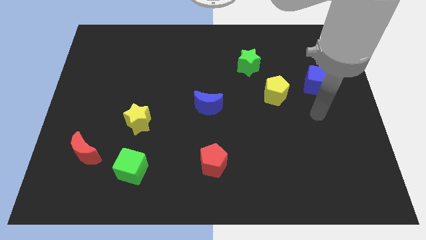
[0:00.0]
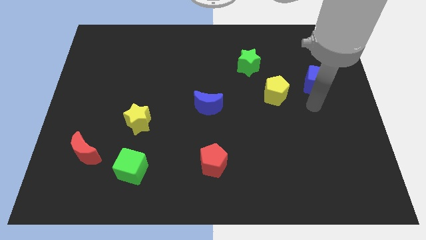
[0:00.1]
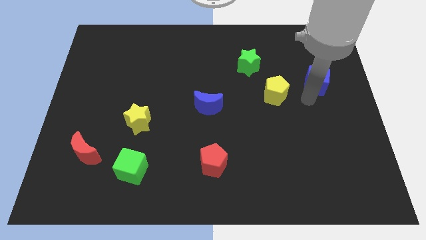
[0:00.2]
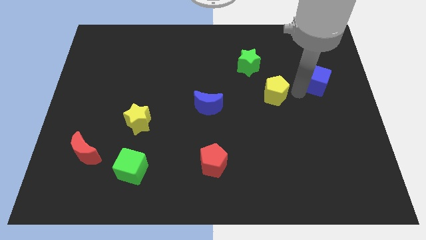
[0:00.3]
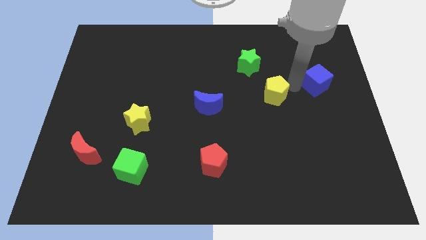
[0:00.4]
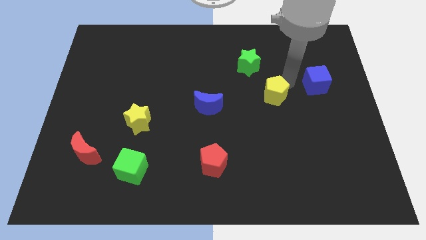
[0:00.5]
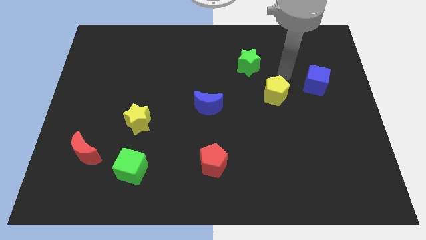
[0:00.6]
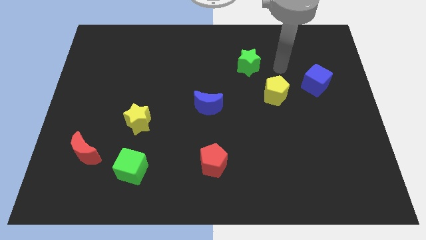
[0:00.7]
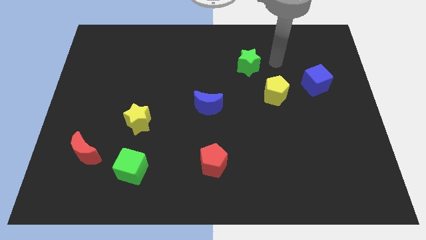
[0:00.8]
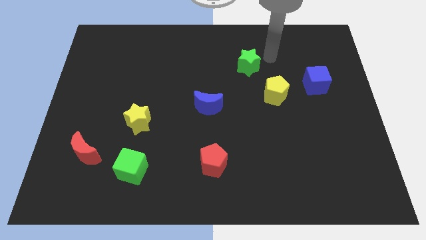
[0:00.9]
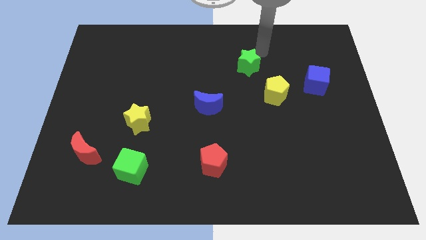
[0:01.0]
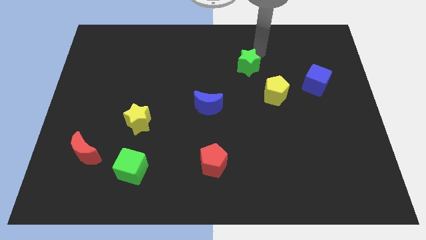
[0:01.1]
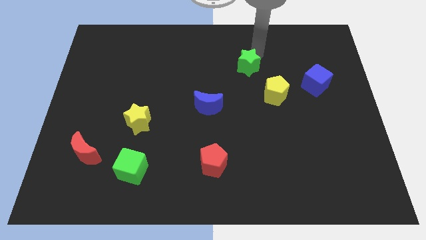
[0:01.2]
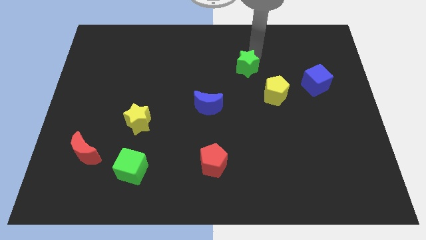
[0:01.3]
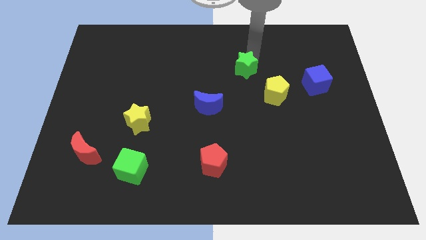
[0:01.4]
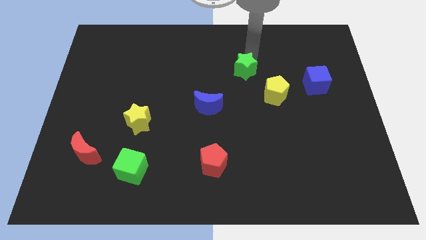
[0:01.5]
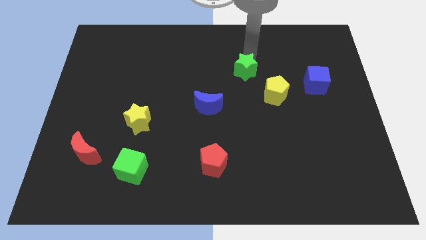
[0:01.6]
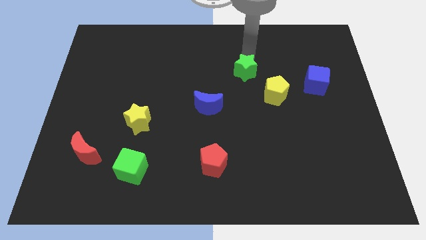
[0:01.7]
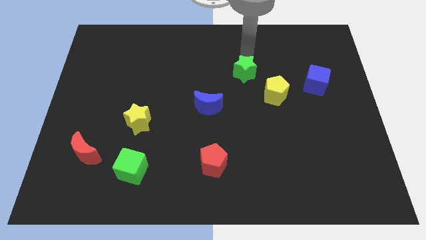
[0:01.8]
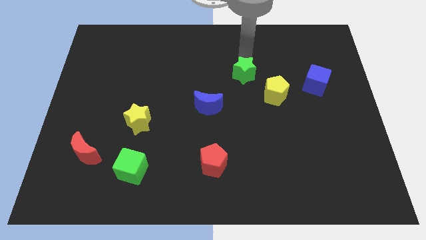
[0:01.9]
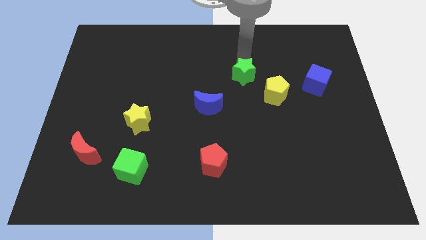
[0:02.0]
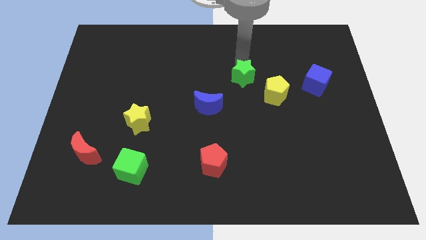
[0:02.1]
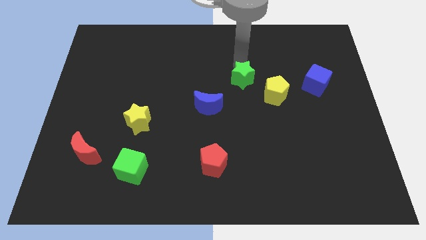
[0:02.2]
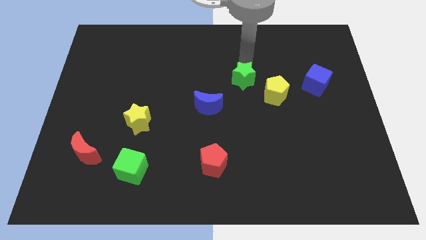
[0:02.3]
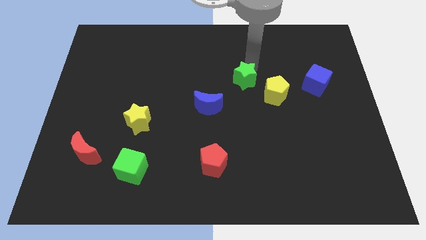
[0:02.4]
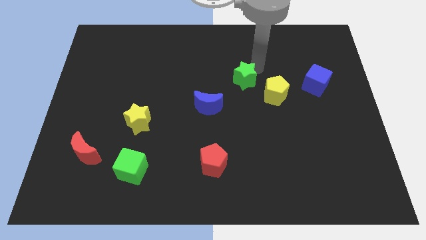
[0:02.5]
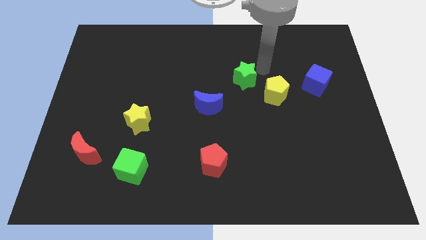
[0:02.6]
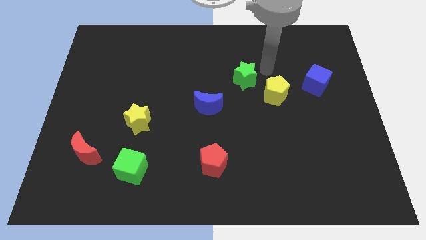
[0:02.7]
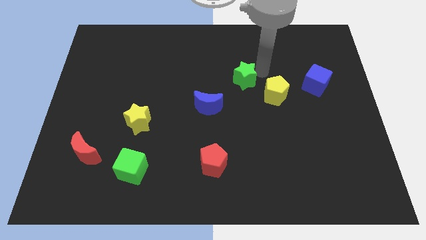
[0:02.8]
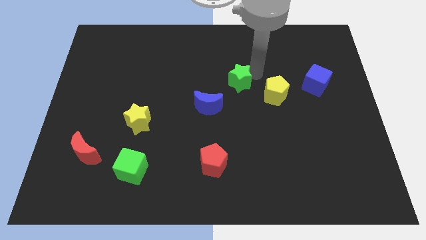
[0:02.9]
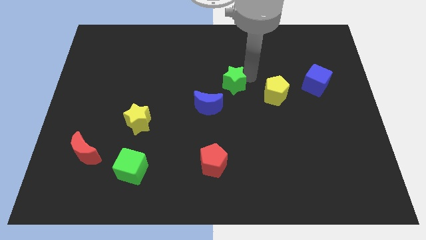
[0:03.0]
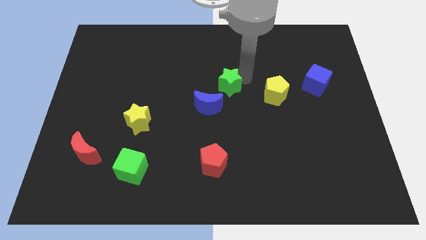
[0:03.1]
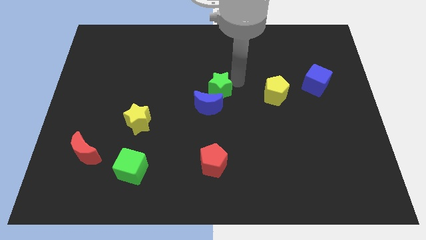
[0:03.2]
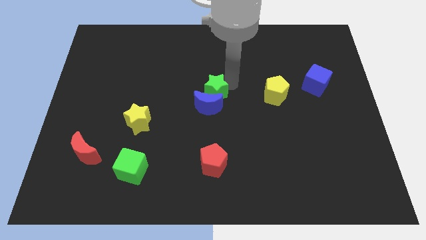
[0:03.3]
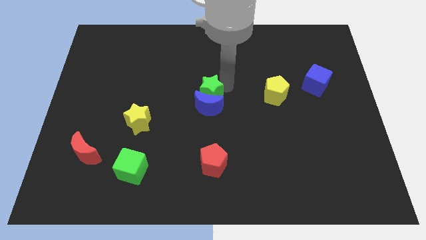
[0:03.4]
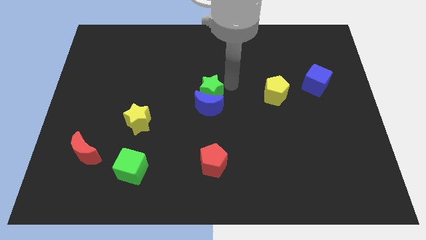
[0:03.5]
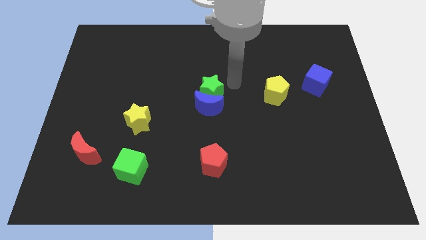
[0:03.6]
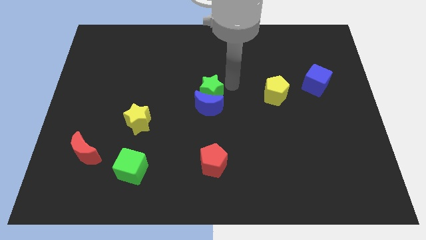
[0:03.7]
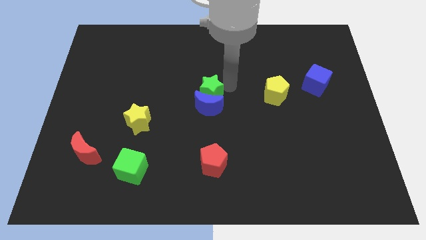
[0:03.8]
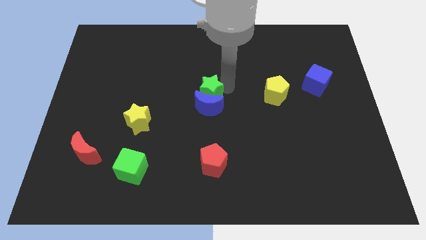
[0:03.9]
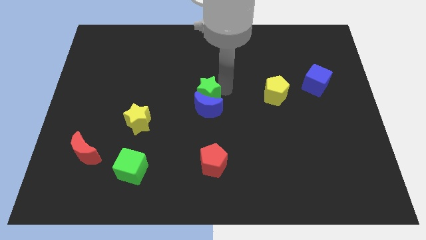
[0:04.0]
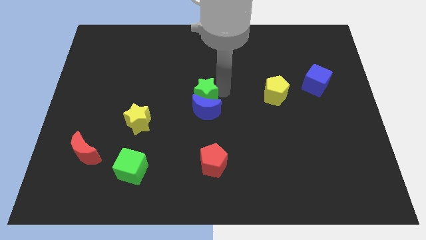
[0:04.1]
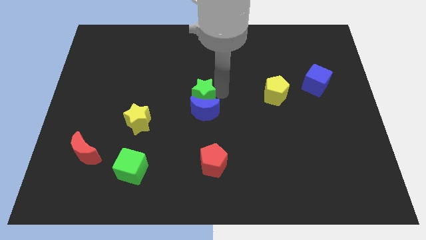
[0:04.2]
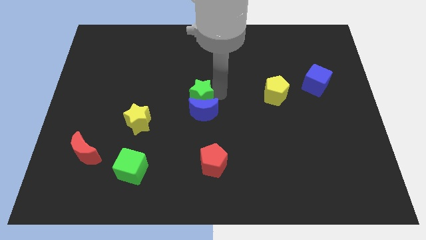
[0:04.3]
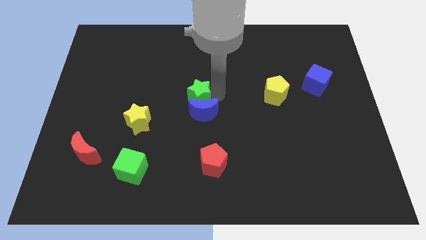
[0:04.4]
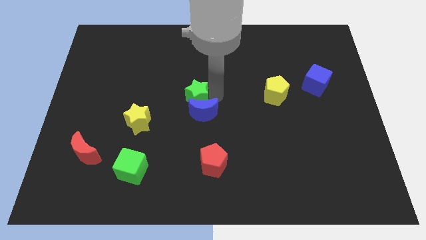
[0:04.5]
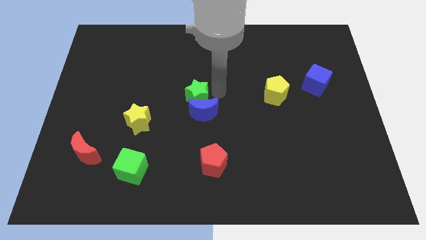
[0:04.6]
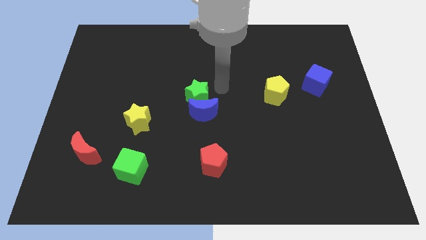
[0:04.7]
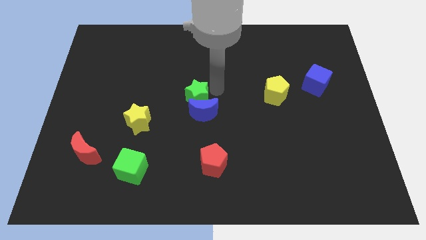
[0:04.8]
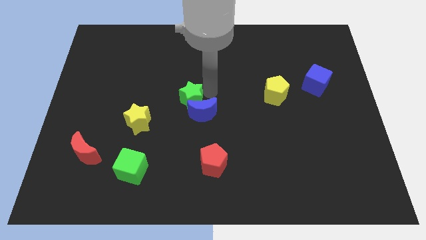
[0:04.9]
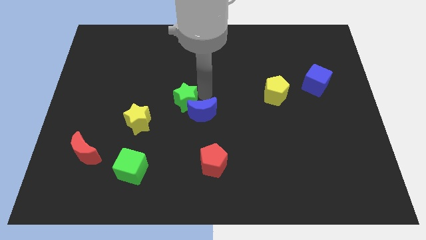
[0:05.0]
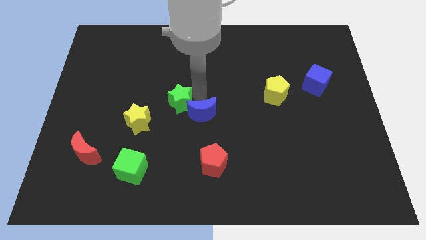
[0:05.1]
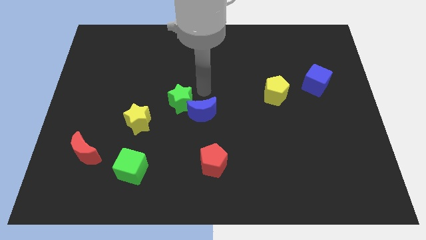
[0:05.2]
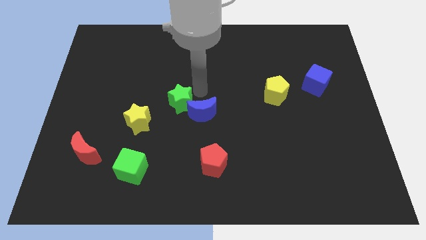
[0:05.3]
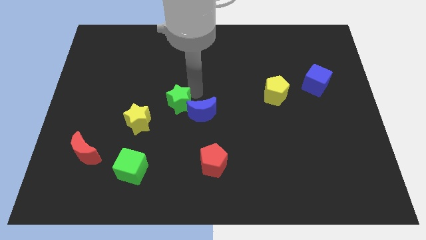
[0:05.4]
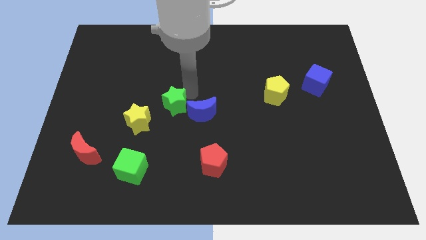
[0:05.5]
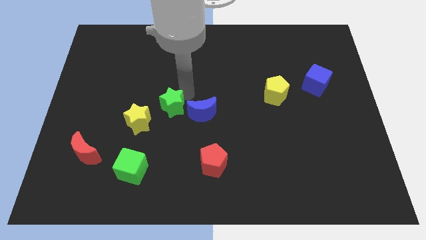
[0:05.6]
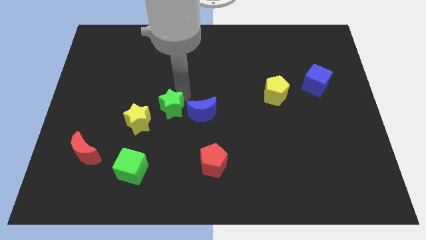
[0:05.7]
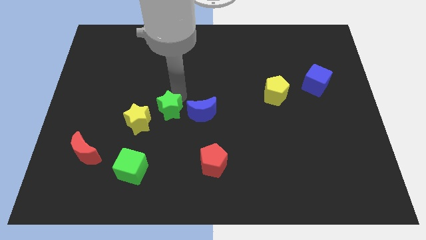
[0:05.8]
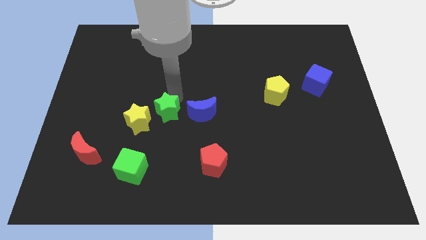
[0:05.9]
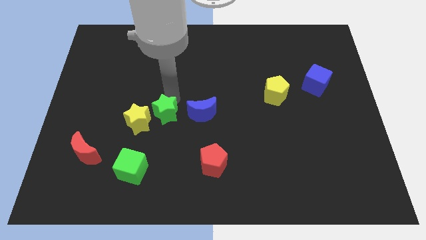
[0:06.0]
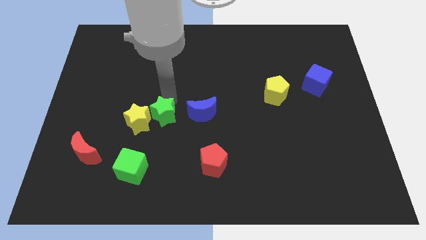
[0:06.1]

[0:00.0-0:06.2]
move the green star close to the yellow star
